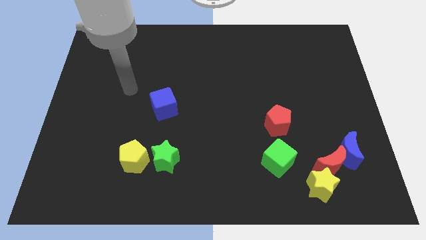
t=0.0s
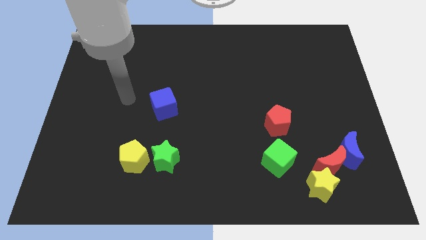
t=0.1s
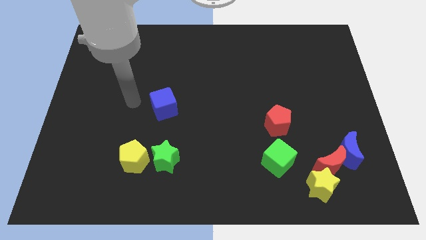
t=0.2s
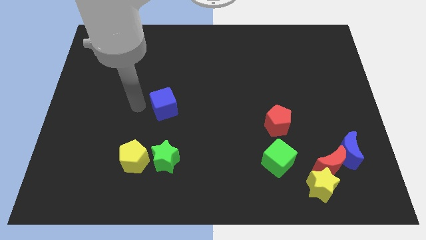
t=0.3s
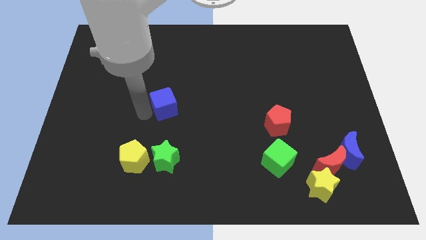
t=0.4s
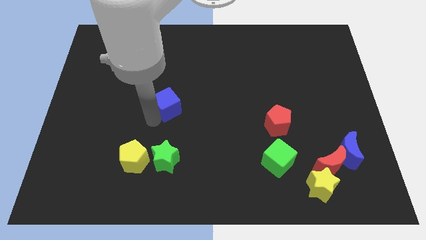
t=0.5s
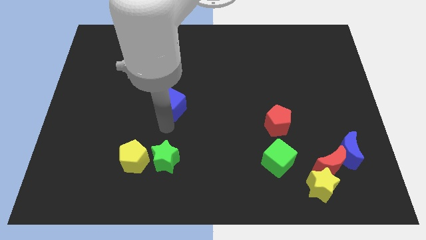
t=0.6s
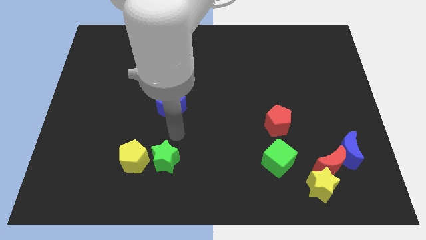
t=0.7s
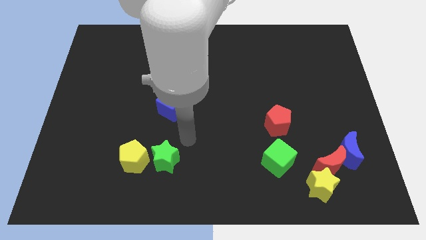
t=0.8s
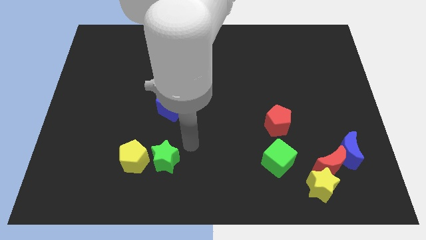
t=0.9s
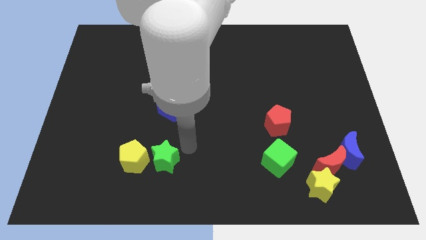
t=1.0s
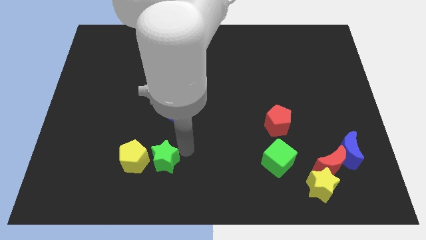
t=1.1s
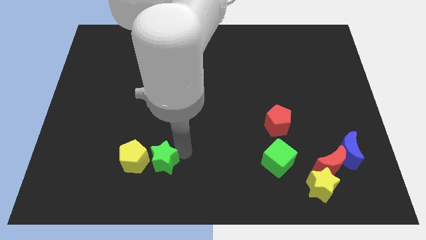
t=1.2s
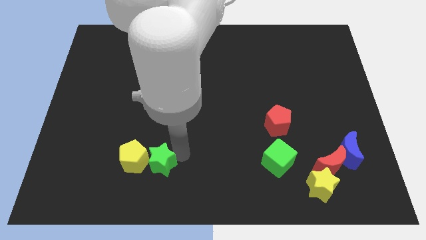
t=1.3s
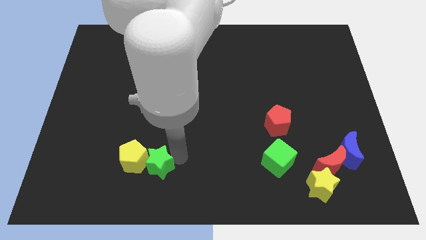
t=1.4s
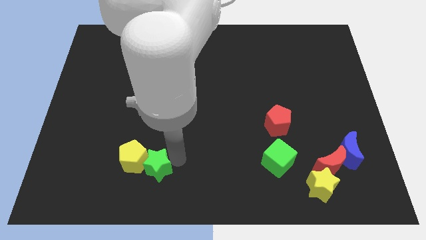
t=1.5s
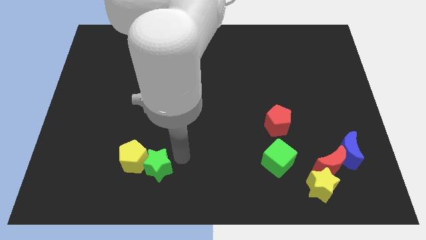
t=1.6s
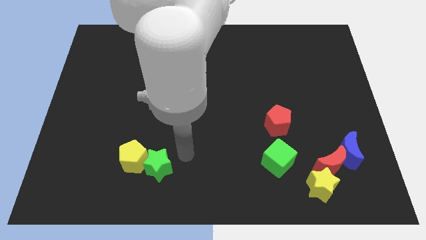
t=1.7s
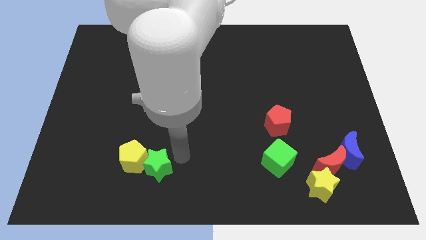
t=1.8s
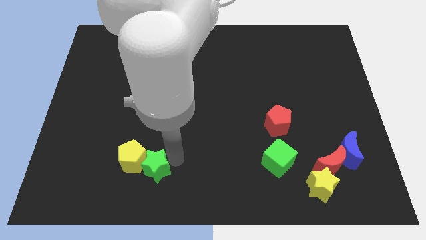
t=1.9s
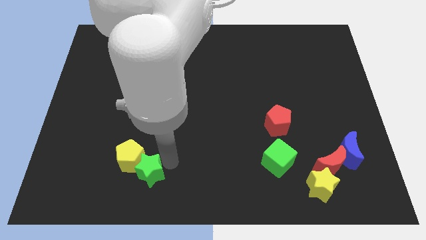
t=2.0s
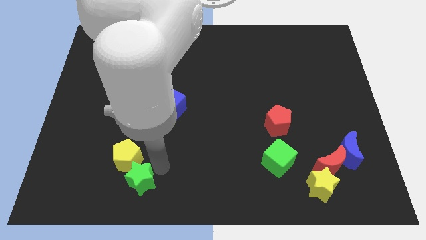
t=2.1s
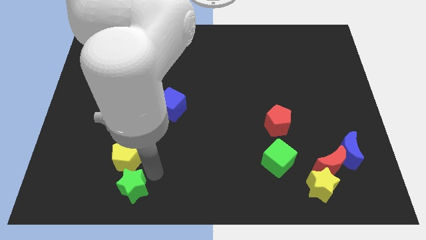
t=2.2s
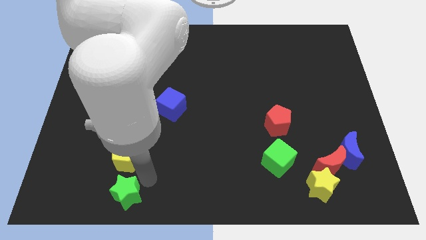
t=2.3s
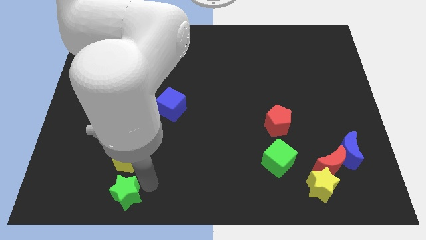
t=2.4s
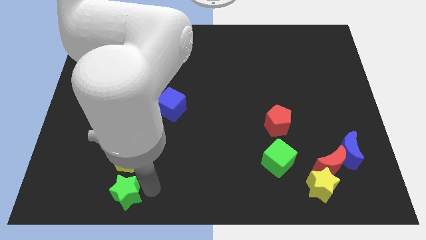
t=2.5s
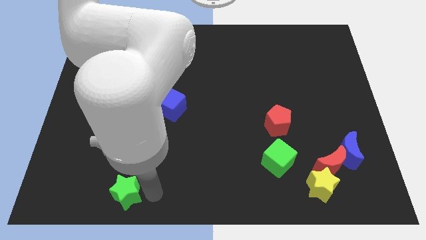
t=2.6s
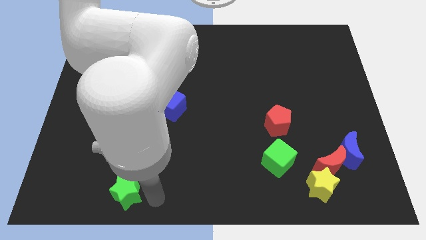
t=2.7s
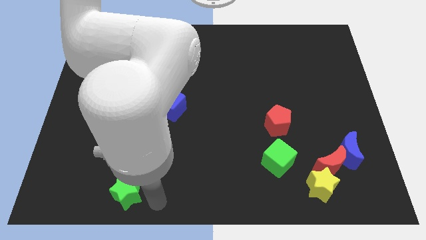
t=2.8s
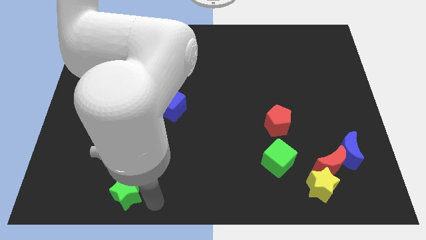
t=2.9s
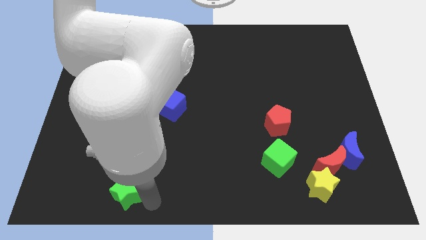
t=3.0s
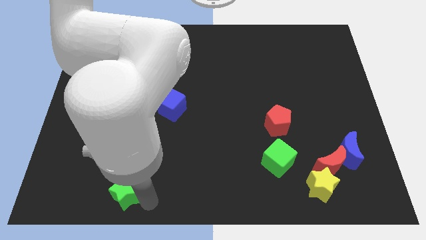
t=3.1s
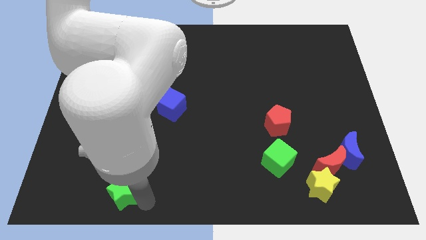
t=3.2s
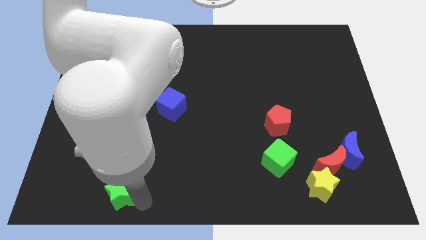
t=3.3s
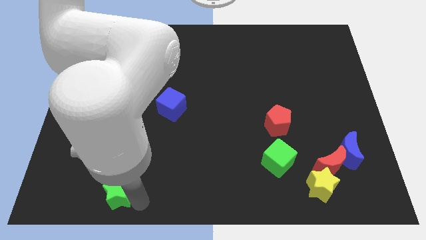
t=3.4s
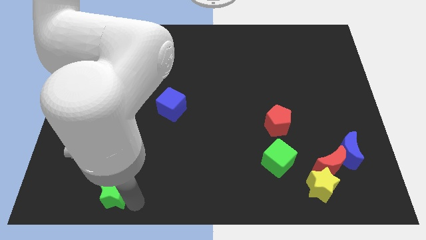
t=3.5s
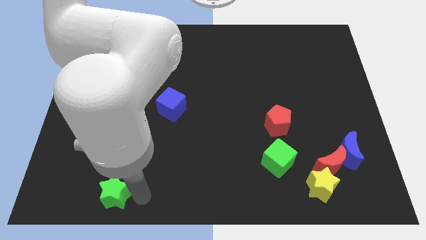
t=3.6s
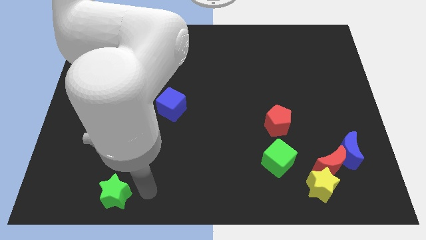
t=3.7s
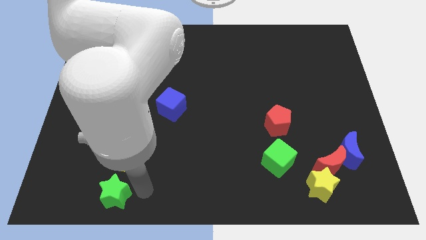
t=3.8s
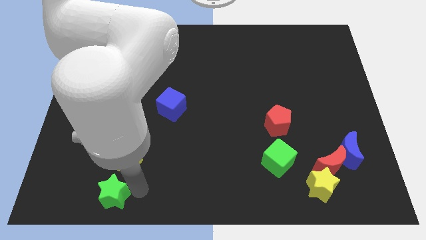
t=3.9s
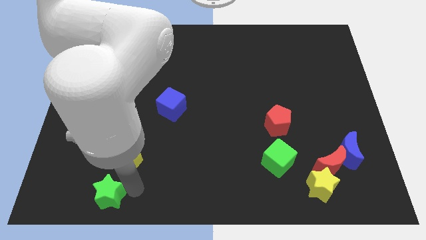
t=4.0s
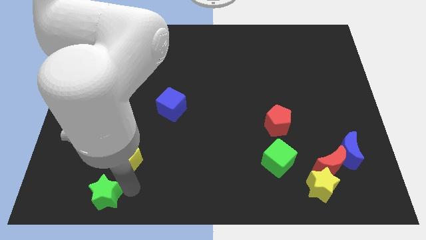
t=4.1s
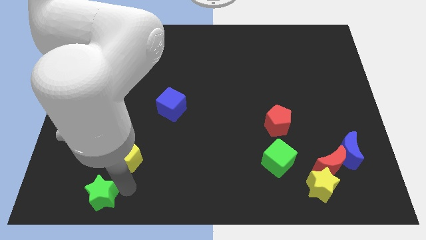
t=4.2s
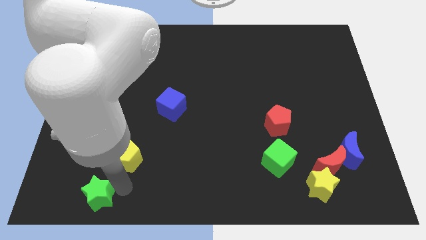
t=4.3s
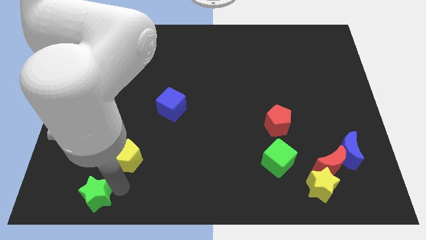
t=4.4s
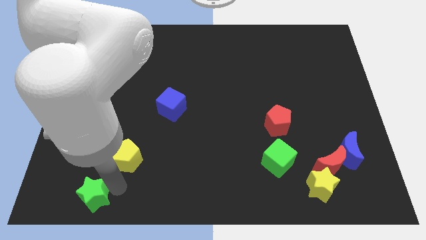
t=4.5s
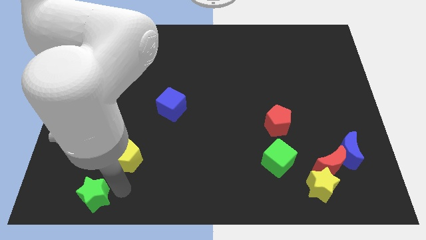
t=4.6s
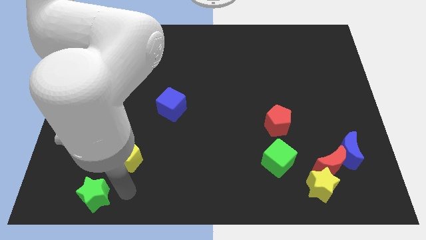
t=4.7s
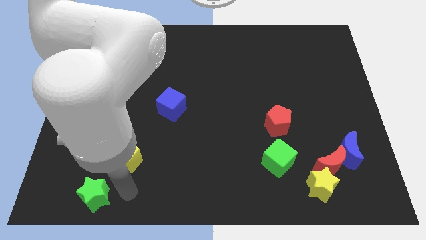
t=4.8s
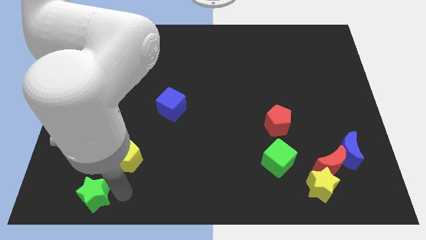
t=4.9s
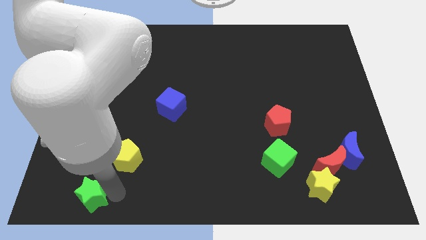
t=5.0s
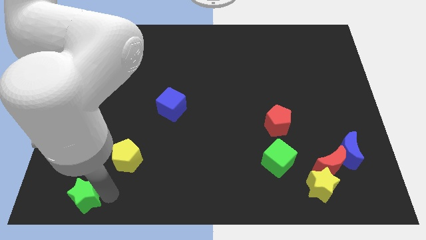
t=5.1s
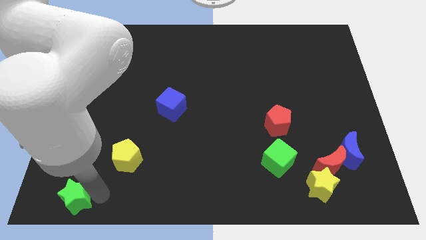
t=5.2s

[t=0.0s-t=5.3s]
slide the green star to the bottom left corner

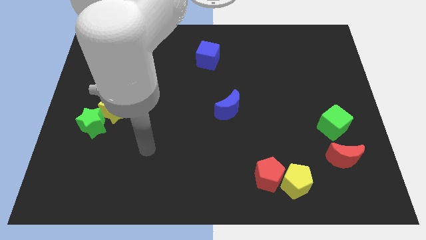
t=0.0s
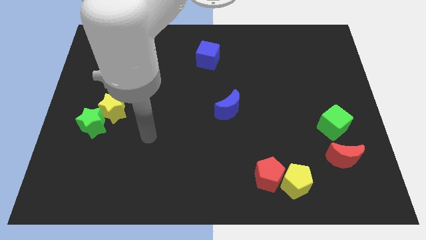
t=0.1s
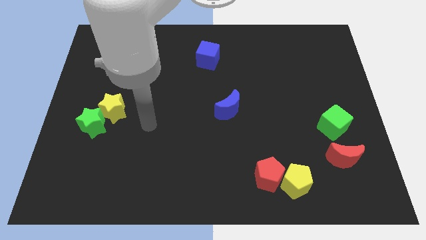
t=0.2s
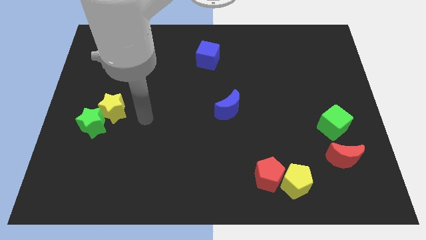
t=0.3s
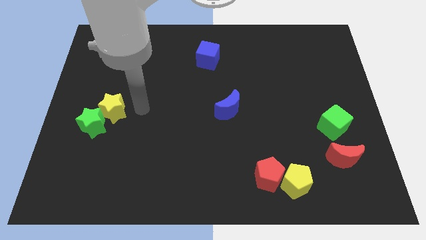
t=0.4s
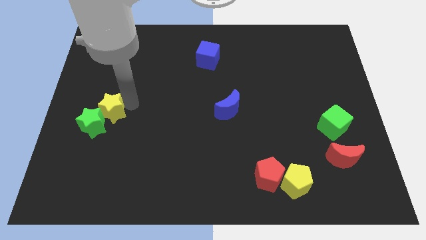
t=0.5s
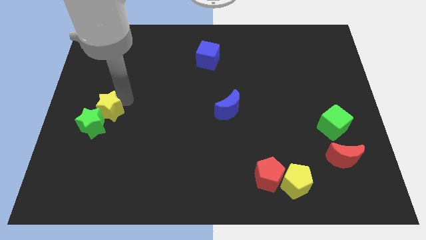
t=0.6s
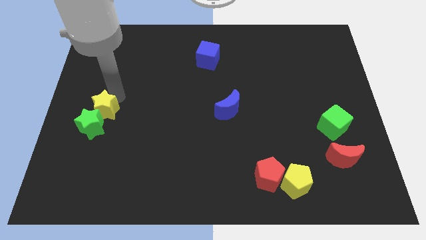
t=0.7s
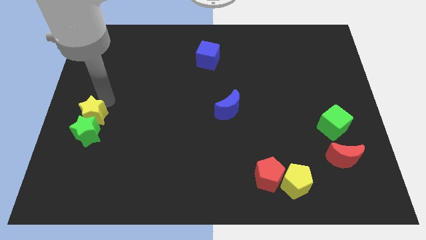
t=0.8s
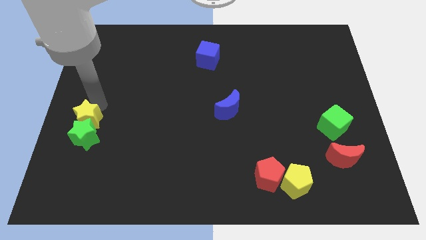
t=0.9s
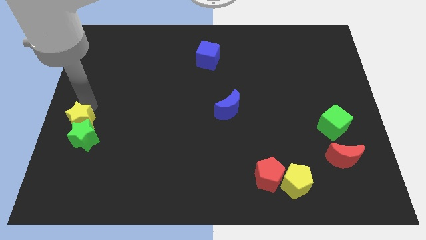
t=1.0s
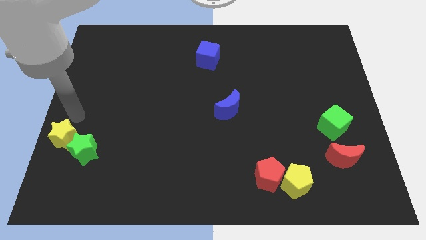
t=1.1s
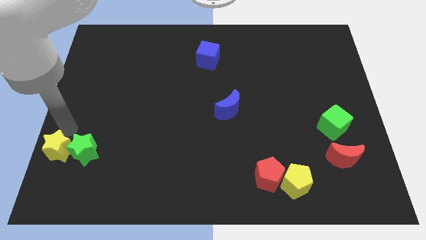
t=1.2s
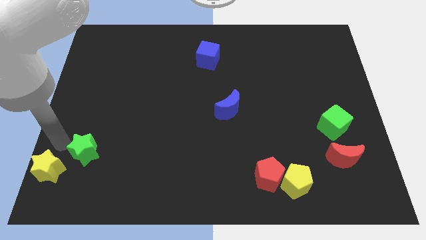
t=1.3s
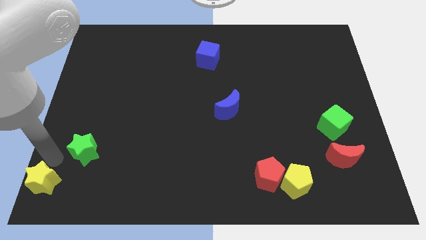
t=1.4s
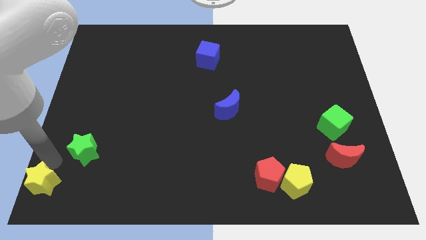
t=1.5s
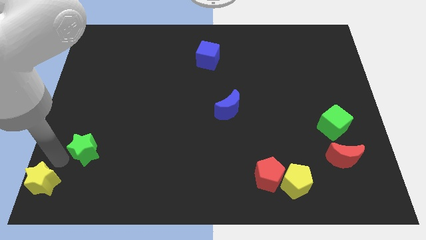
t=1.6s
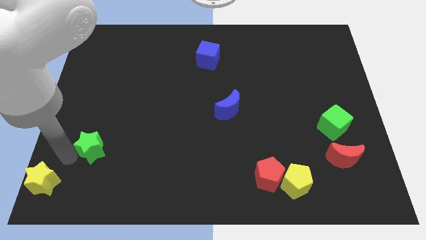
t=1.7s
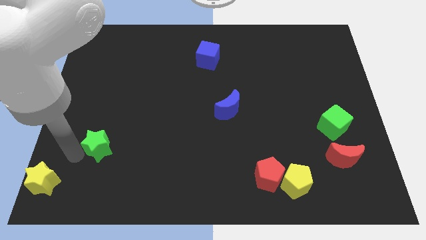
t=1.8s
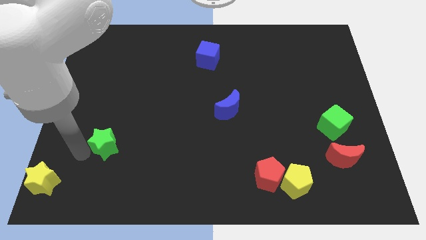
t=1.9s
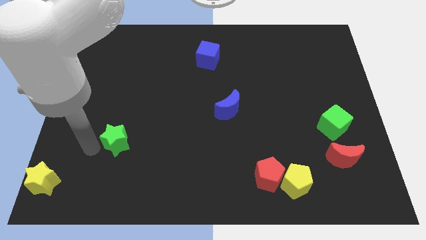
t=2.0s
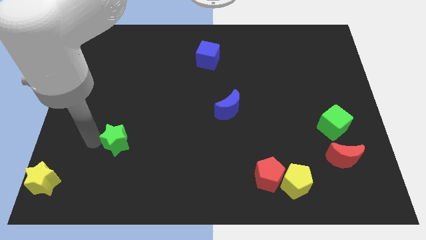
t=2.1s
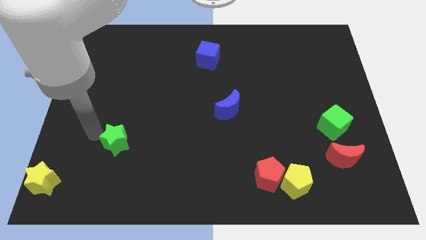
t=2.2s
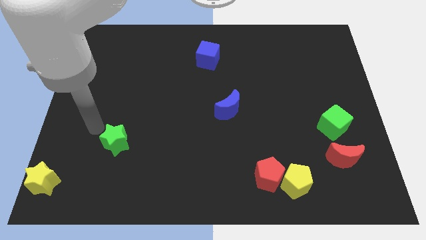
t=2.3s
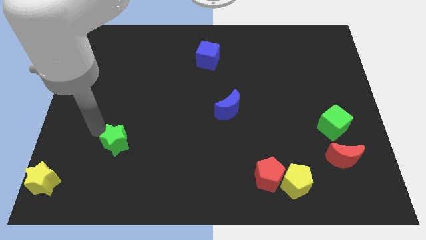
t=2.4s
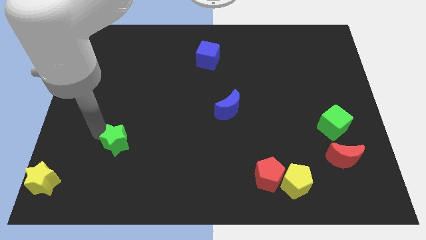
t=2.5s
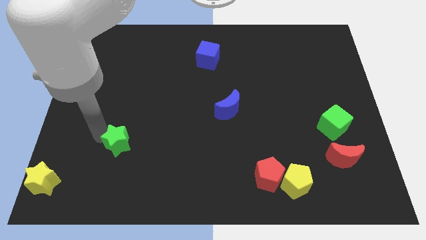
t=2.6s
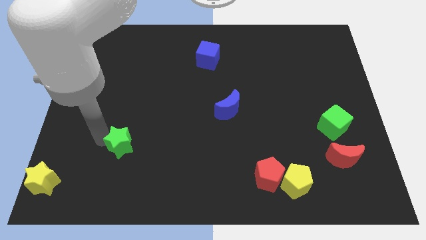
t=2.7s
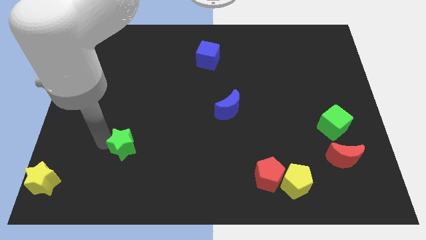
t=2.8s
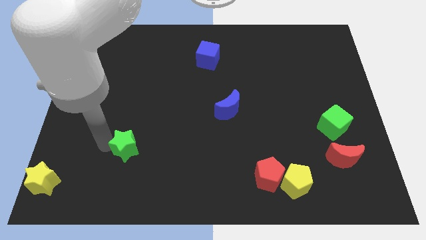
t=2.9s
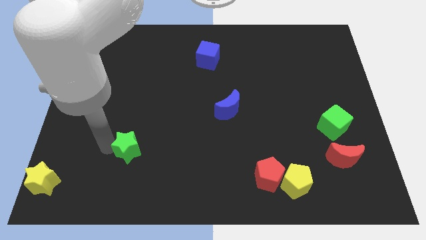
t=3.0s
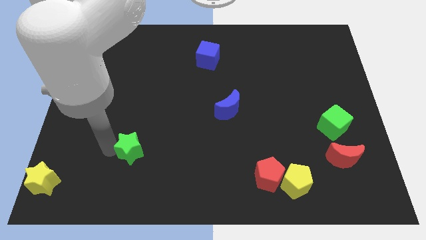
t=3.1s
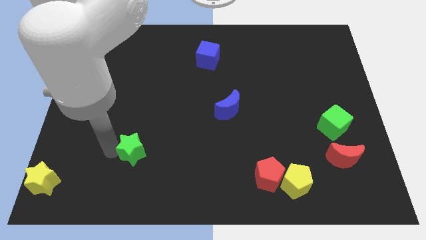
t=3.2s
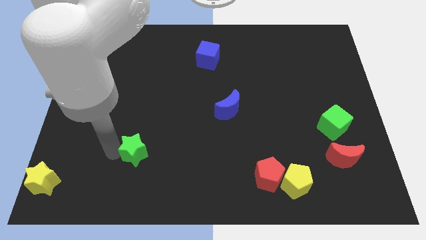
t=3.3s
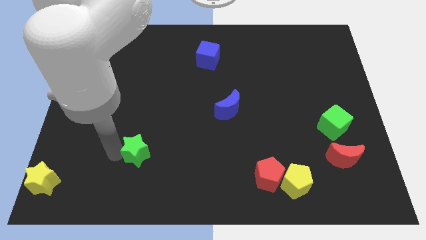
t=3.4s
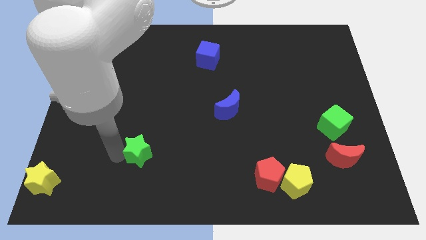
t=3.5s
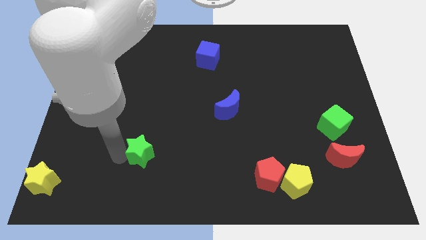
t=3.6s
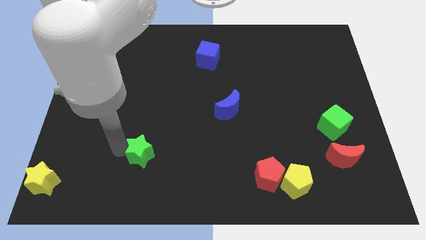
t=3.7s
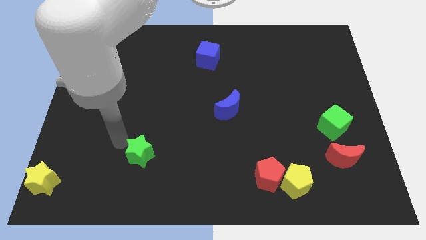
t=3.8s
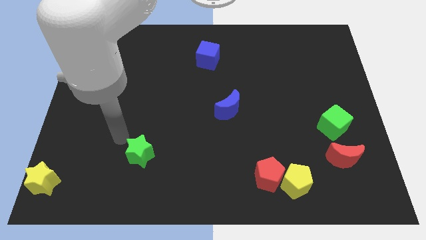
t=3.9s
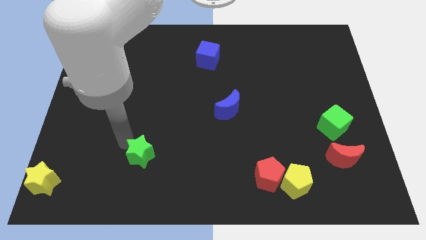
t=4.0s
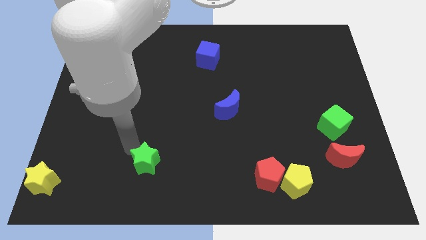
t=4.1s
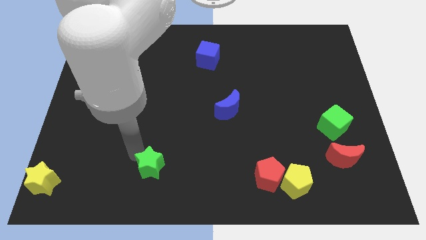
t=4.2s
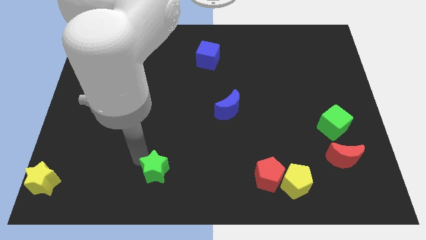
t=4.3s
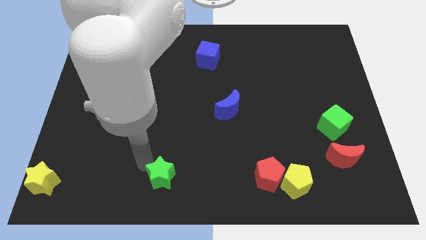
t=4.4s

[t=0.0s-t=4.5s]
slide the green star to the bottom side
